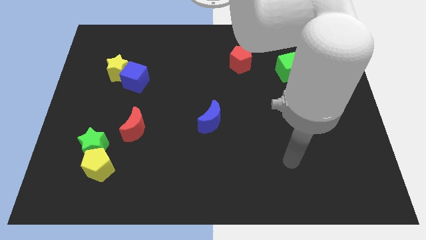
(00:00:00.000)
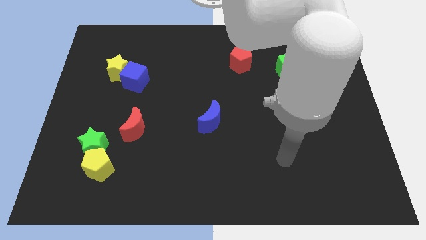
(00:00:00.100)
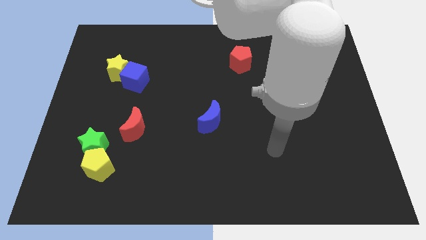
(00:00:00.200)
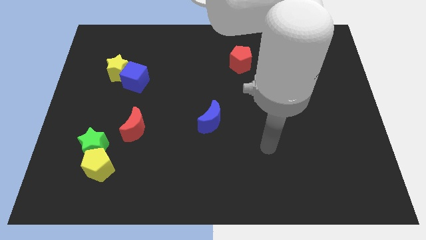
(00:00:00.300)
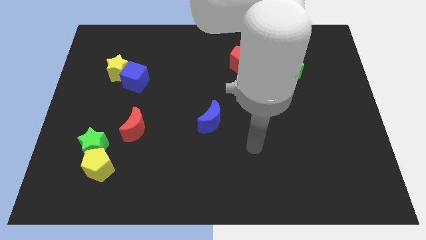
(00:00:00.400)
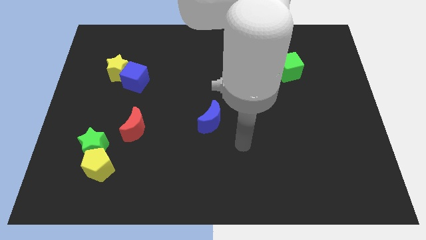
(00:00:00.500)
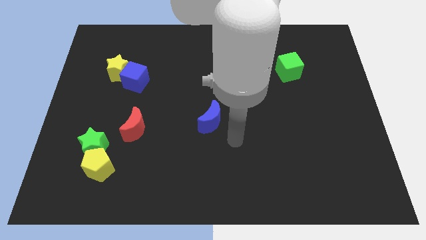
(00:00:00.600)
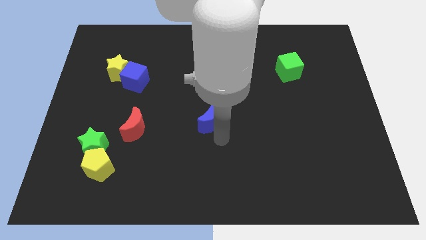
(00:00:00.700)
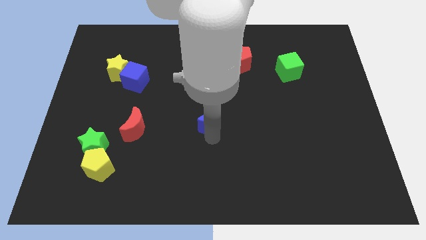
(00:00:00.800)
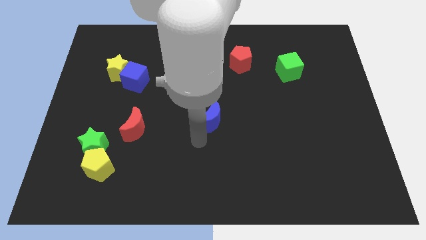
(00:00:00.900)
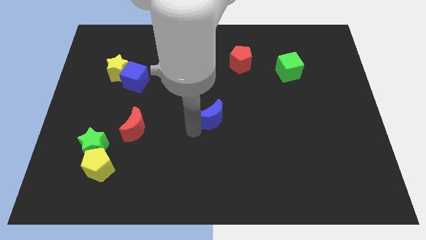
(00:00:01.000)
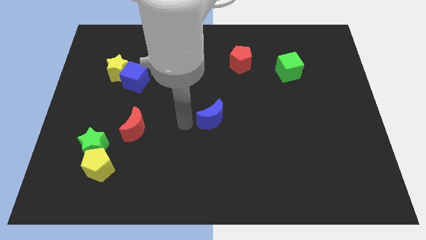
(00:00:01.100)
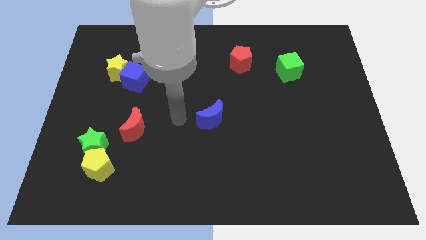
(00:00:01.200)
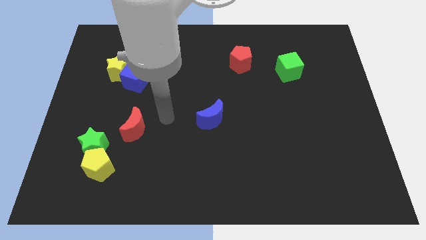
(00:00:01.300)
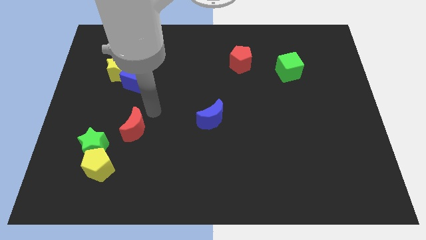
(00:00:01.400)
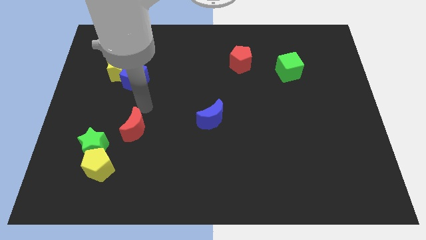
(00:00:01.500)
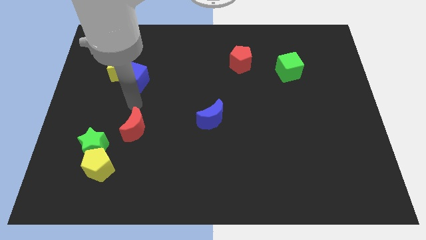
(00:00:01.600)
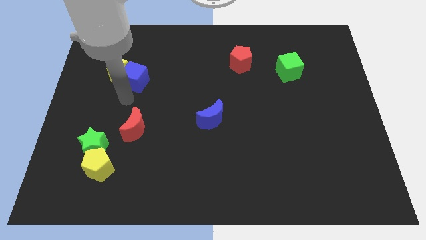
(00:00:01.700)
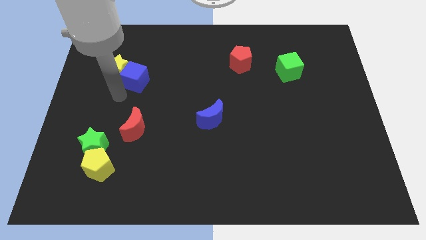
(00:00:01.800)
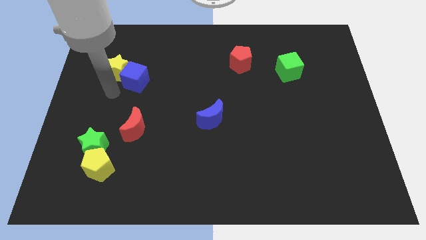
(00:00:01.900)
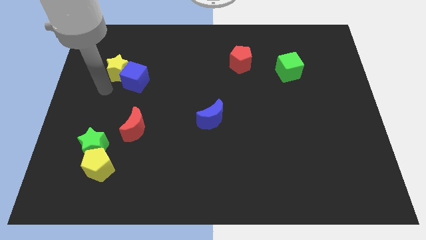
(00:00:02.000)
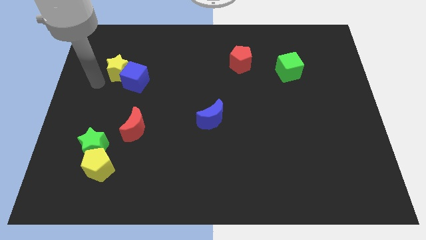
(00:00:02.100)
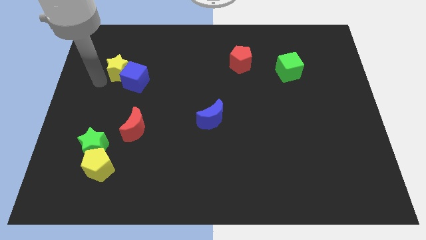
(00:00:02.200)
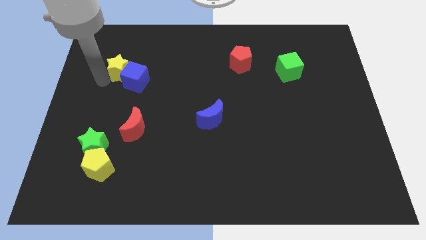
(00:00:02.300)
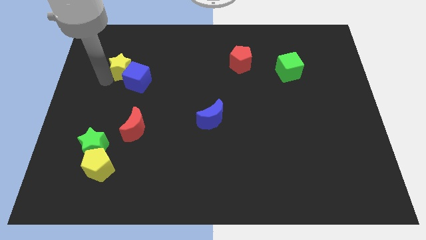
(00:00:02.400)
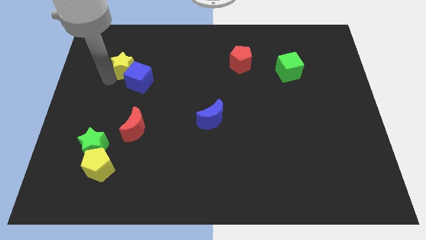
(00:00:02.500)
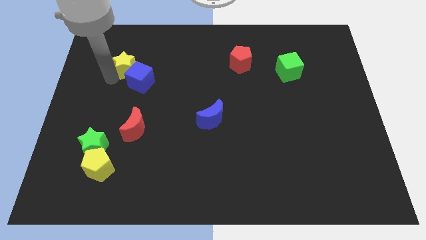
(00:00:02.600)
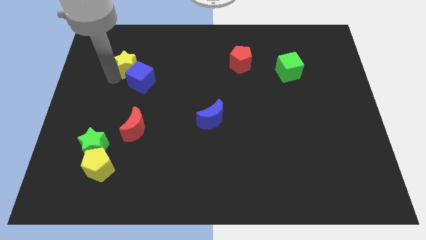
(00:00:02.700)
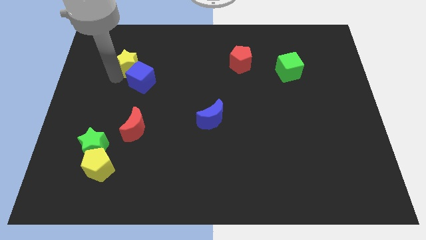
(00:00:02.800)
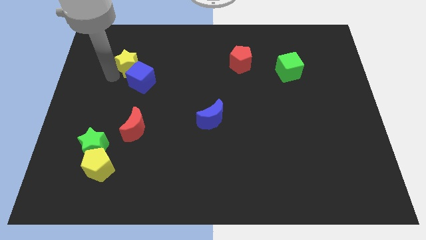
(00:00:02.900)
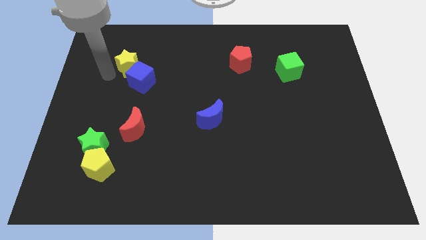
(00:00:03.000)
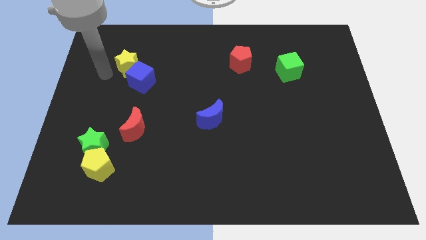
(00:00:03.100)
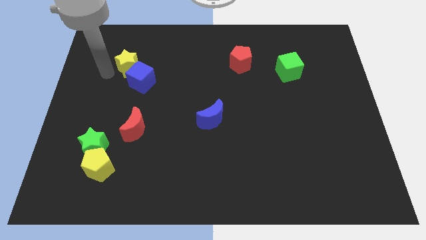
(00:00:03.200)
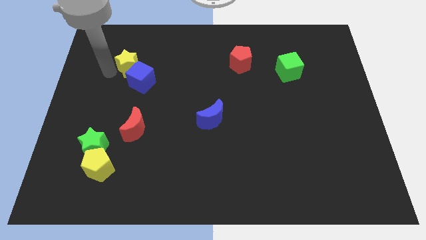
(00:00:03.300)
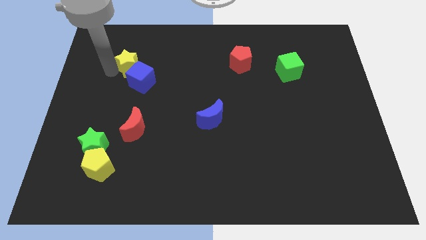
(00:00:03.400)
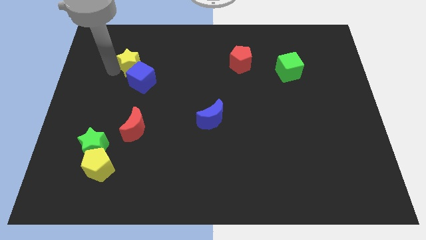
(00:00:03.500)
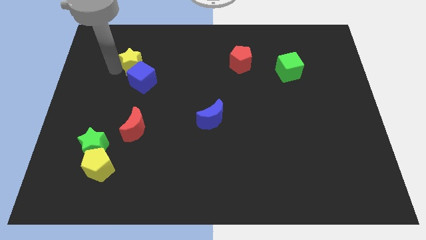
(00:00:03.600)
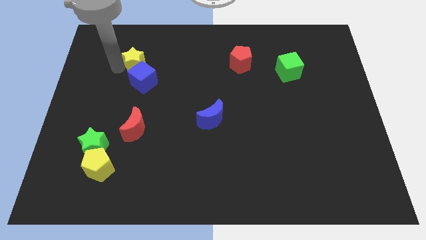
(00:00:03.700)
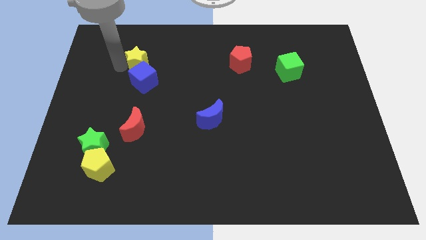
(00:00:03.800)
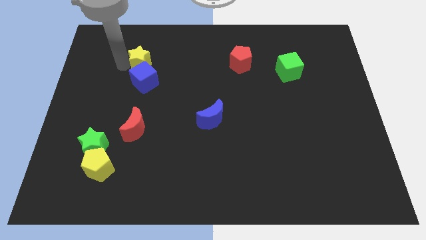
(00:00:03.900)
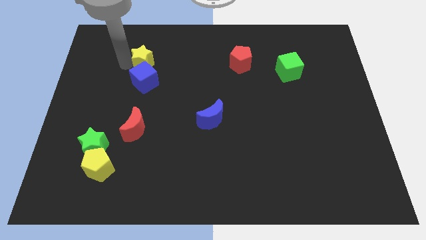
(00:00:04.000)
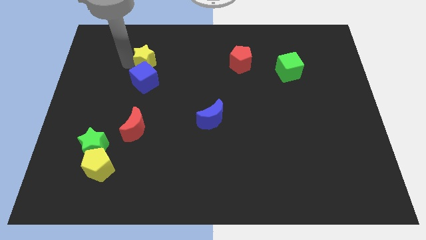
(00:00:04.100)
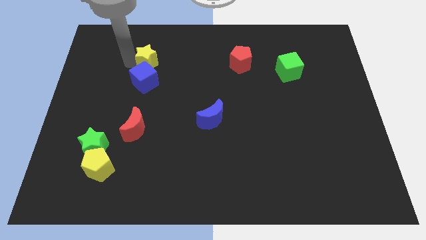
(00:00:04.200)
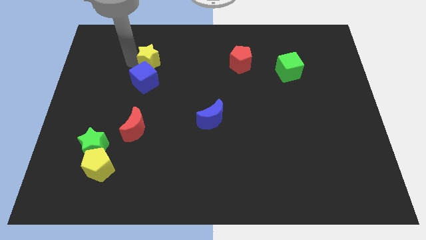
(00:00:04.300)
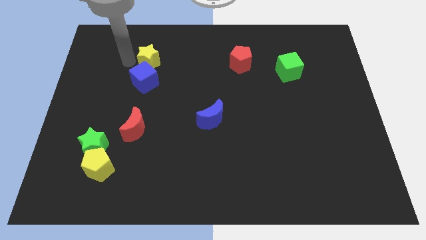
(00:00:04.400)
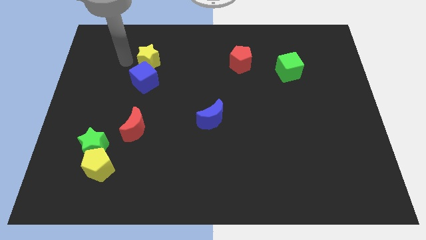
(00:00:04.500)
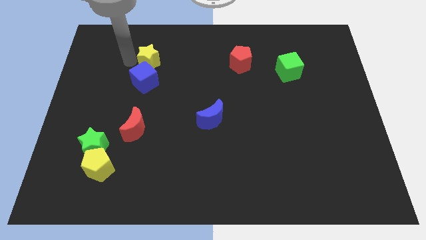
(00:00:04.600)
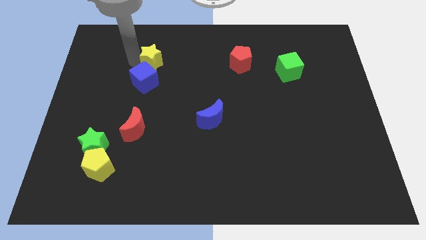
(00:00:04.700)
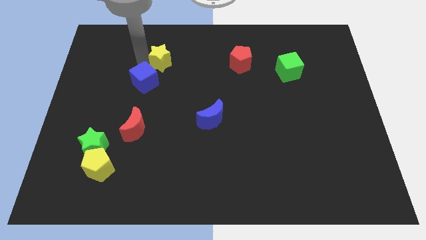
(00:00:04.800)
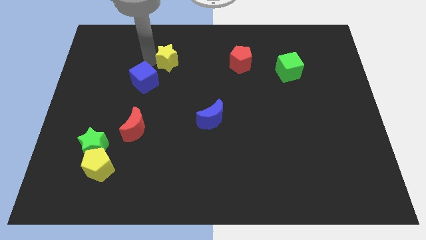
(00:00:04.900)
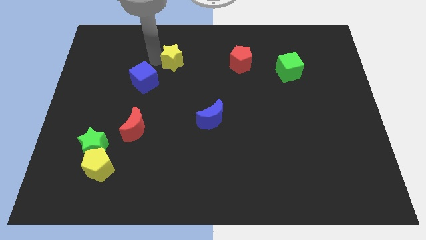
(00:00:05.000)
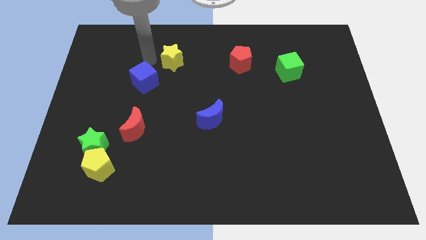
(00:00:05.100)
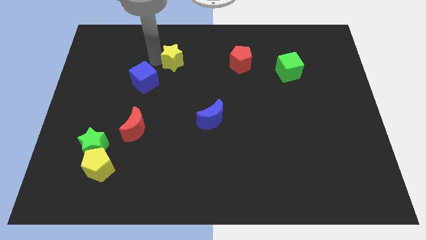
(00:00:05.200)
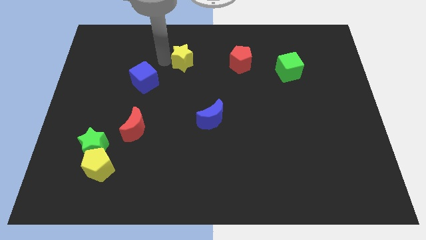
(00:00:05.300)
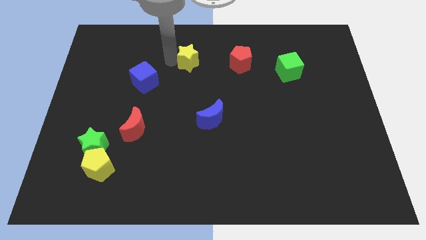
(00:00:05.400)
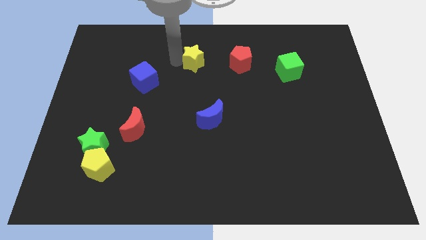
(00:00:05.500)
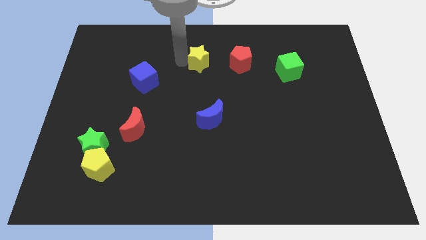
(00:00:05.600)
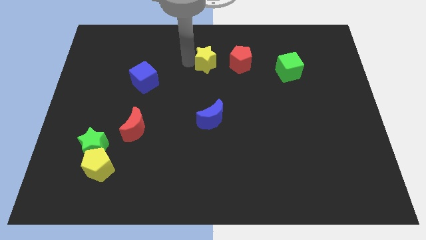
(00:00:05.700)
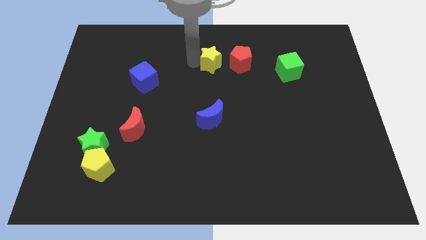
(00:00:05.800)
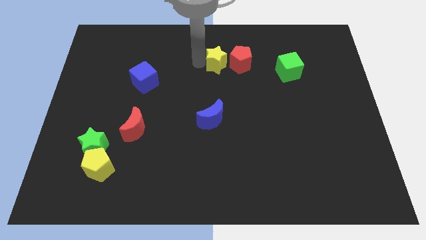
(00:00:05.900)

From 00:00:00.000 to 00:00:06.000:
move the yellow star towards the red pentagon
